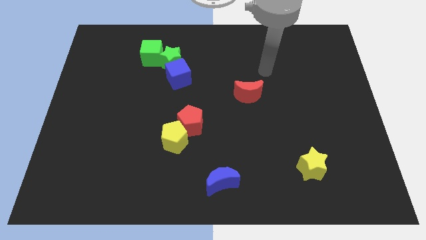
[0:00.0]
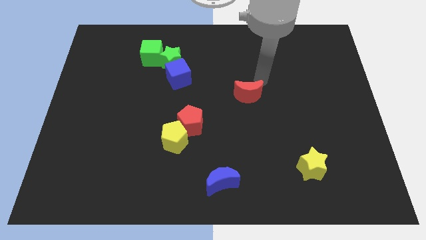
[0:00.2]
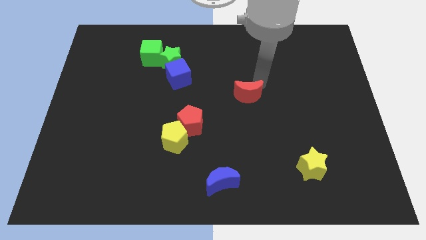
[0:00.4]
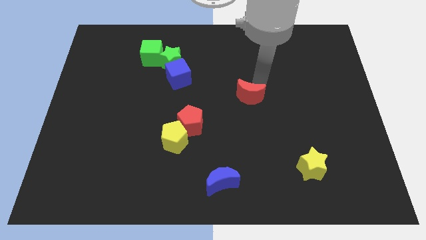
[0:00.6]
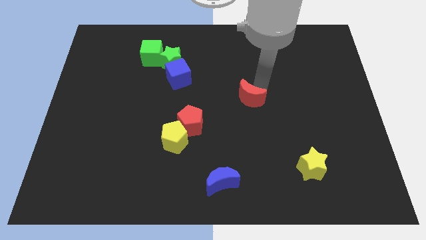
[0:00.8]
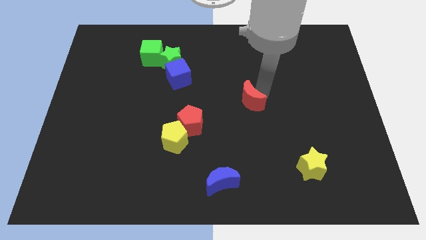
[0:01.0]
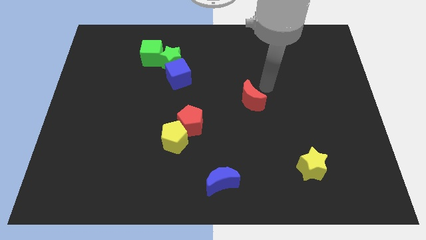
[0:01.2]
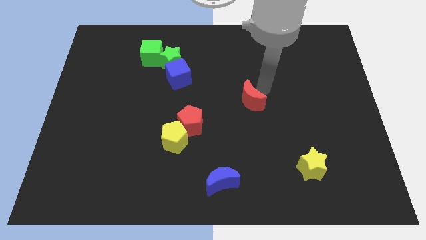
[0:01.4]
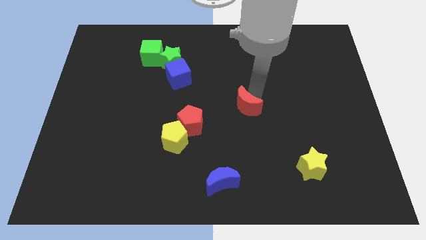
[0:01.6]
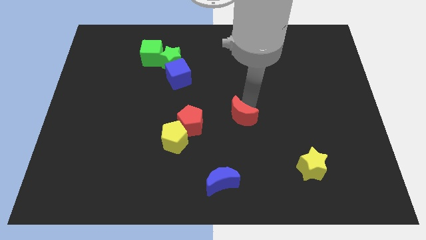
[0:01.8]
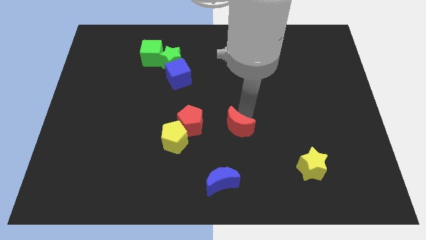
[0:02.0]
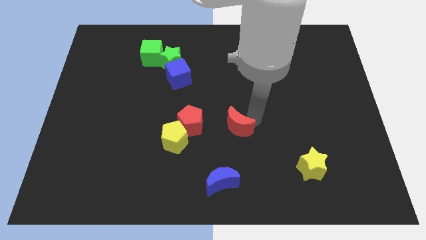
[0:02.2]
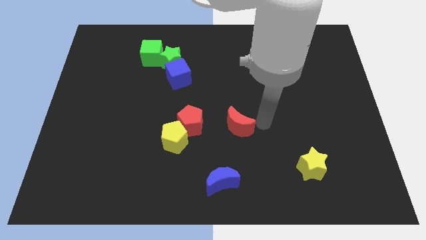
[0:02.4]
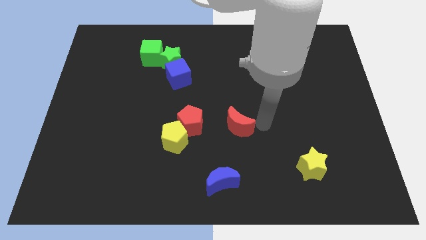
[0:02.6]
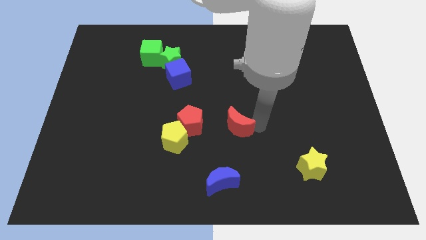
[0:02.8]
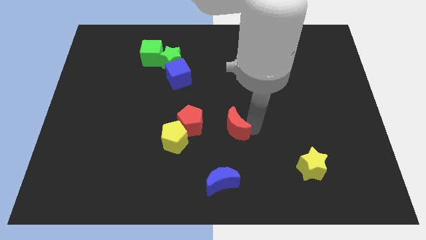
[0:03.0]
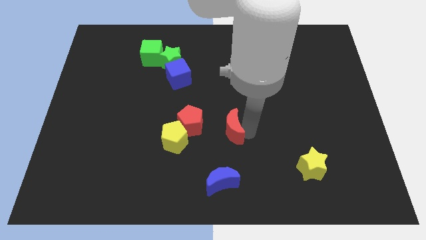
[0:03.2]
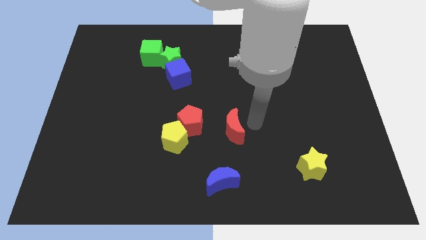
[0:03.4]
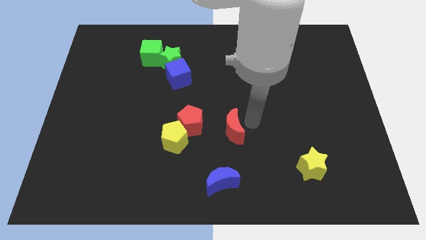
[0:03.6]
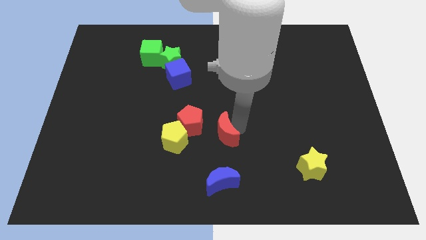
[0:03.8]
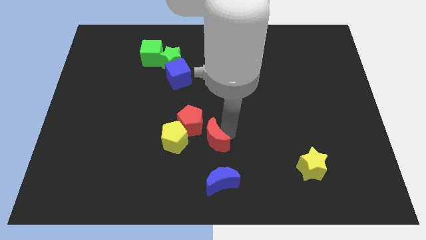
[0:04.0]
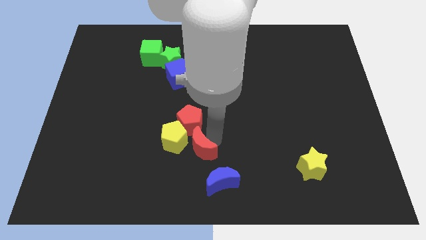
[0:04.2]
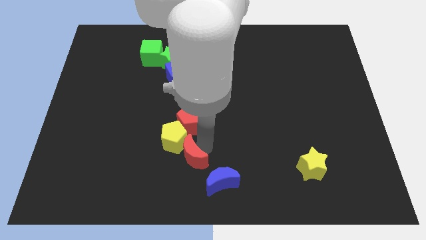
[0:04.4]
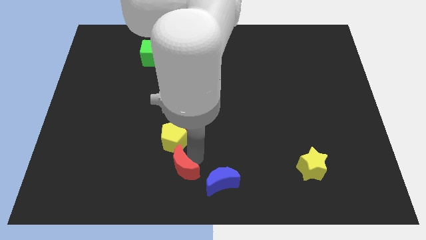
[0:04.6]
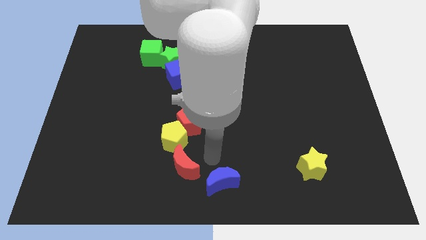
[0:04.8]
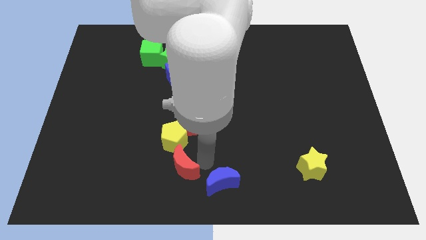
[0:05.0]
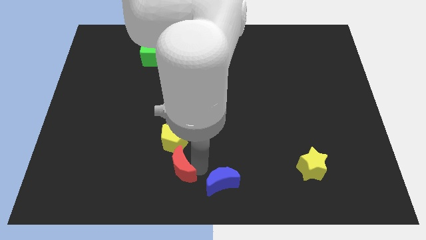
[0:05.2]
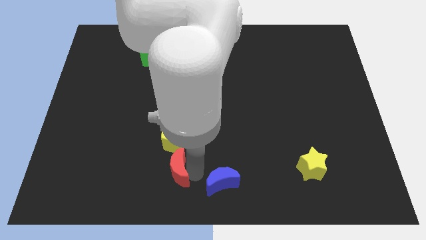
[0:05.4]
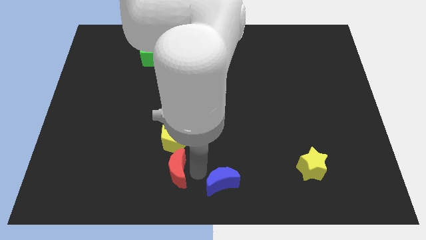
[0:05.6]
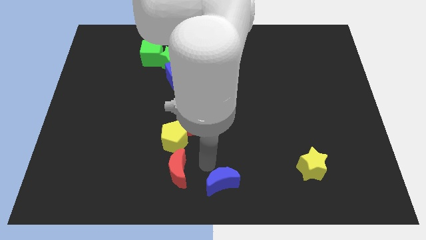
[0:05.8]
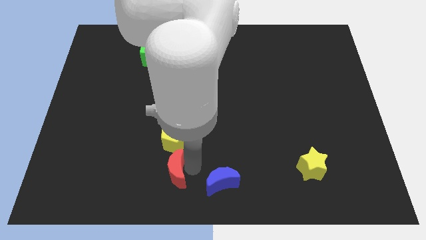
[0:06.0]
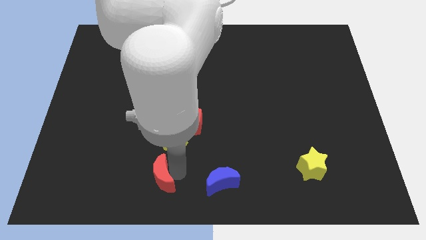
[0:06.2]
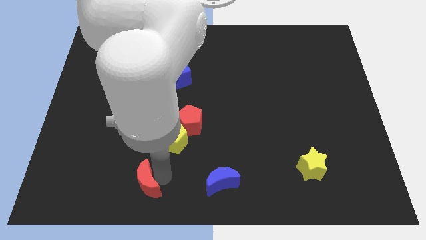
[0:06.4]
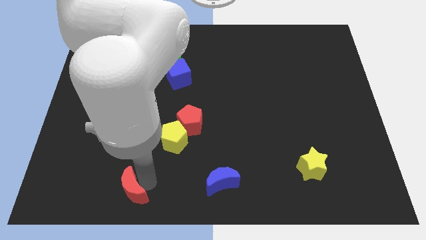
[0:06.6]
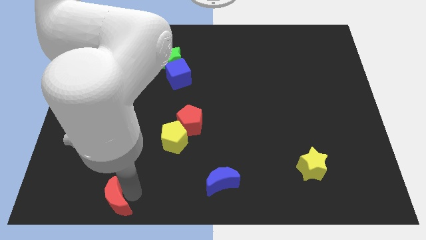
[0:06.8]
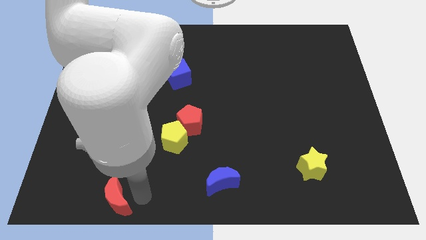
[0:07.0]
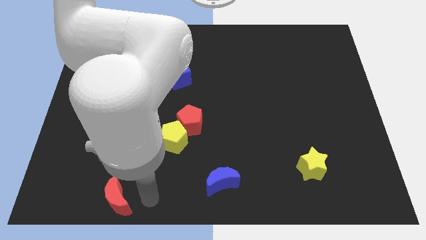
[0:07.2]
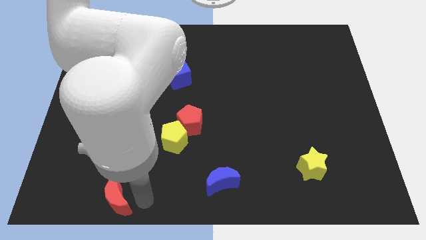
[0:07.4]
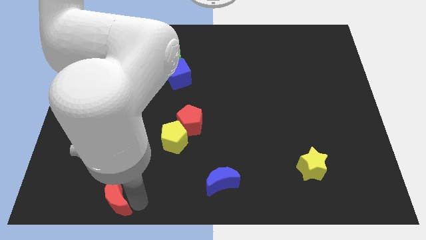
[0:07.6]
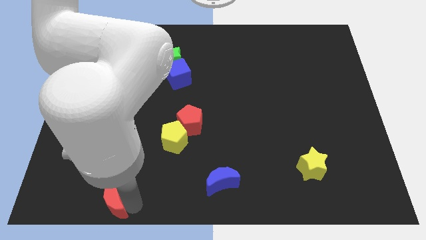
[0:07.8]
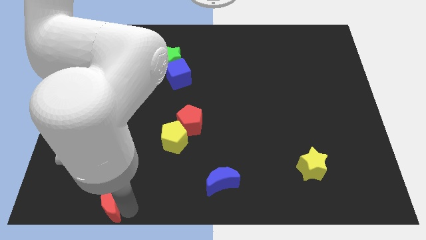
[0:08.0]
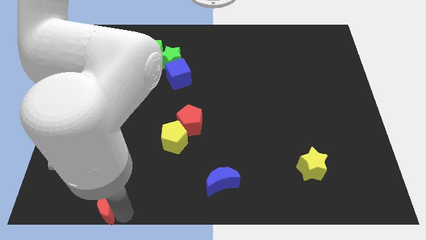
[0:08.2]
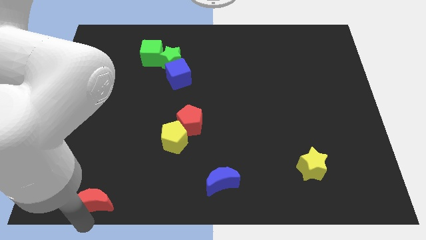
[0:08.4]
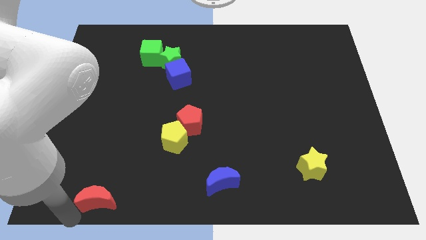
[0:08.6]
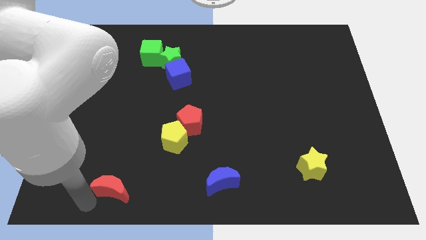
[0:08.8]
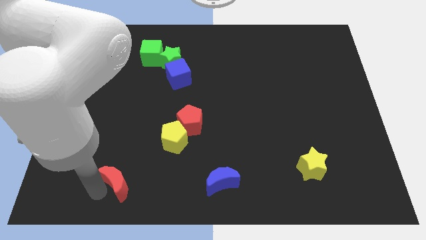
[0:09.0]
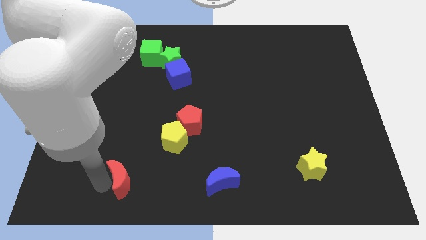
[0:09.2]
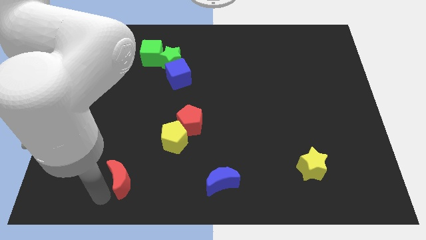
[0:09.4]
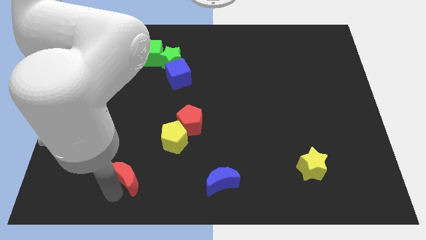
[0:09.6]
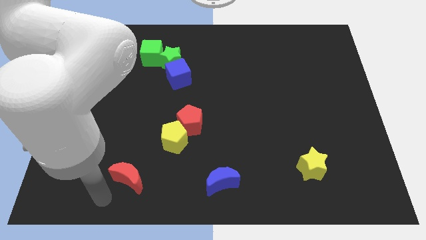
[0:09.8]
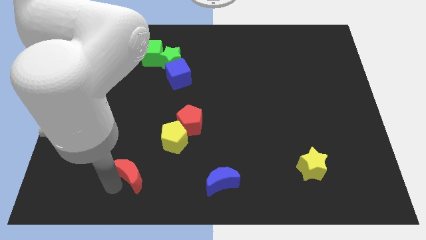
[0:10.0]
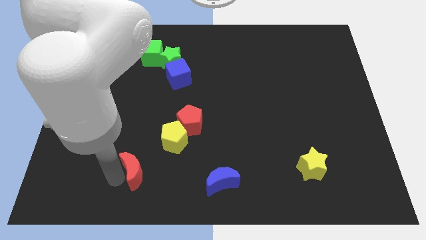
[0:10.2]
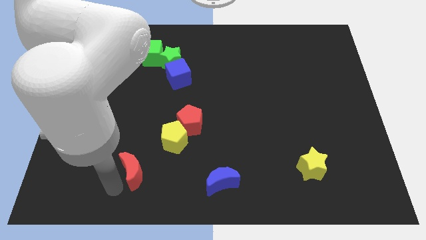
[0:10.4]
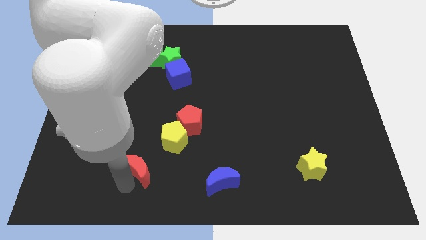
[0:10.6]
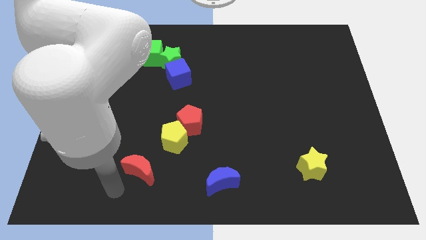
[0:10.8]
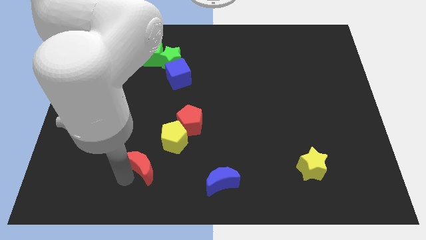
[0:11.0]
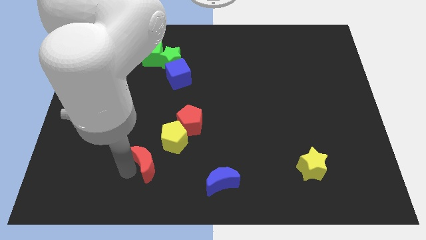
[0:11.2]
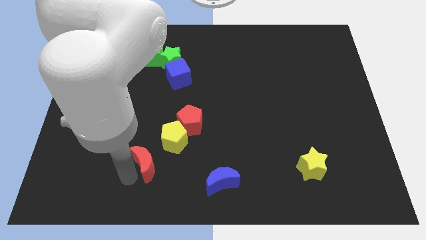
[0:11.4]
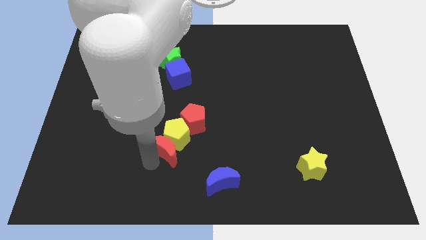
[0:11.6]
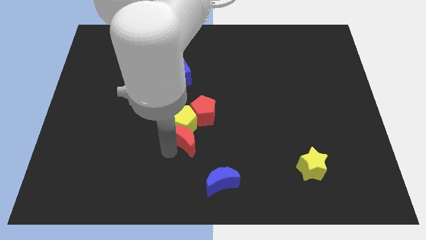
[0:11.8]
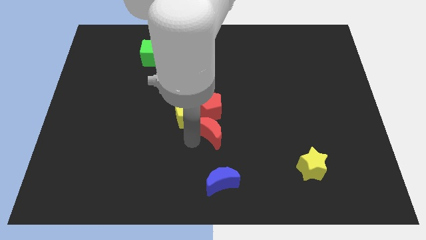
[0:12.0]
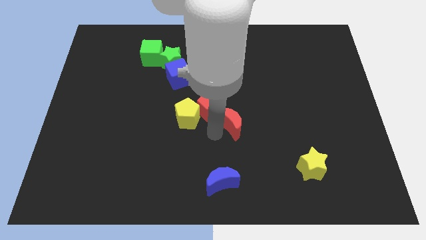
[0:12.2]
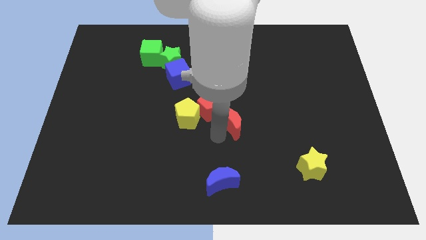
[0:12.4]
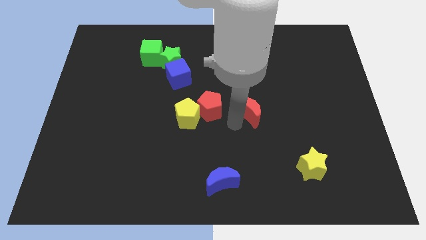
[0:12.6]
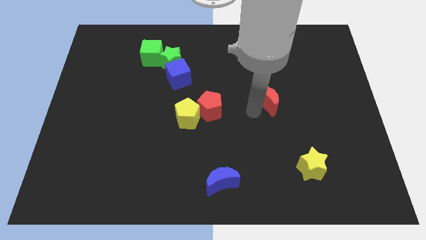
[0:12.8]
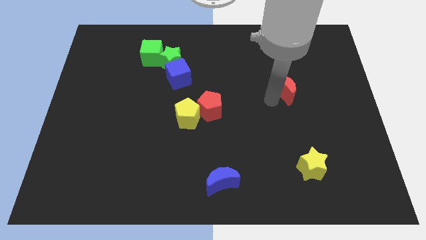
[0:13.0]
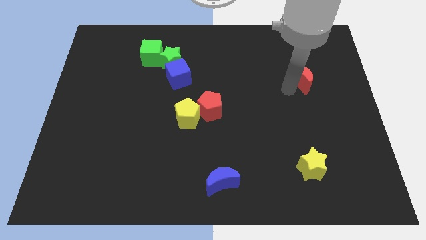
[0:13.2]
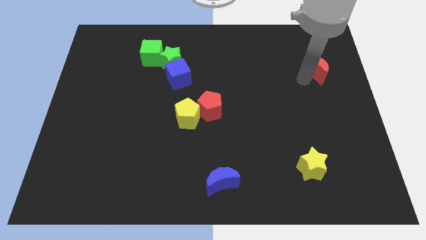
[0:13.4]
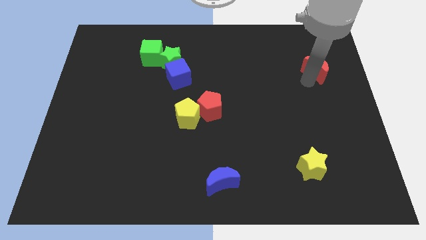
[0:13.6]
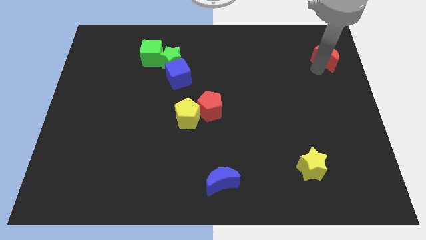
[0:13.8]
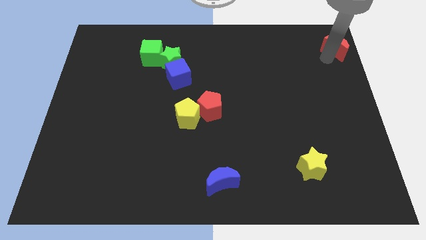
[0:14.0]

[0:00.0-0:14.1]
move the red moon to the top right
